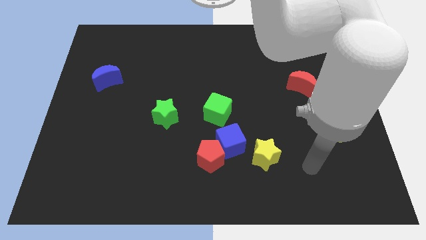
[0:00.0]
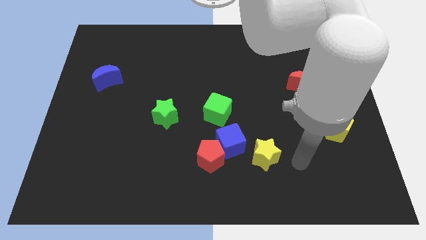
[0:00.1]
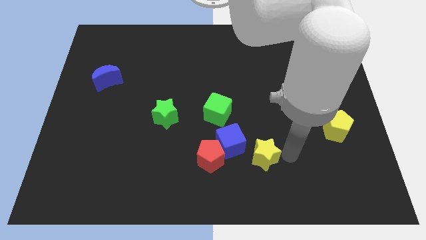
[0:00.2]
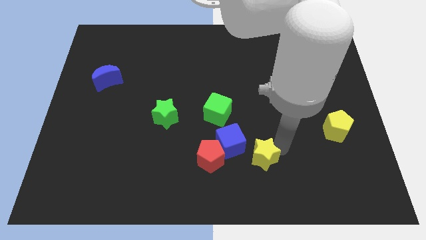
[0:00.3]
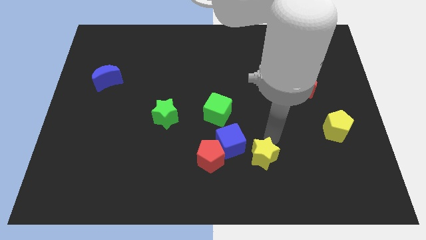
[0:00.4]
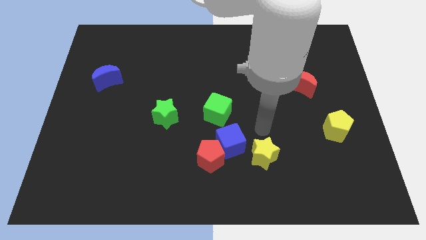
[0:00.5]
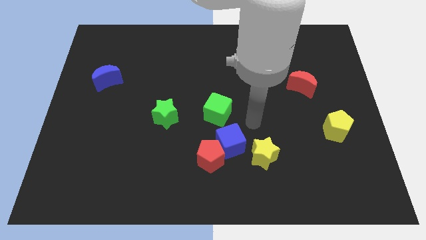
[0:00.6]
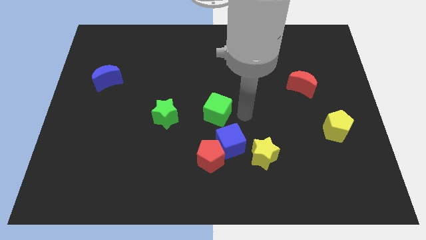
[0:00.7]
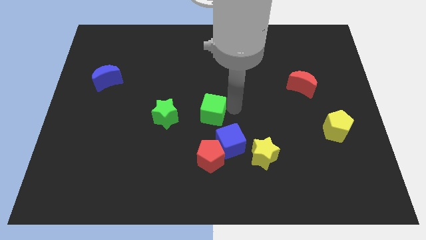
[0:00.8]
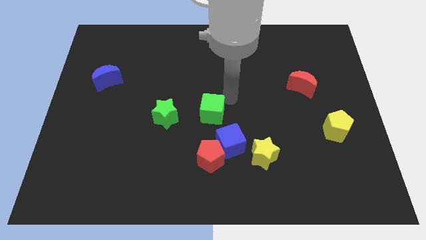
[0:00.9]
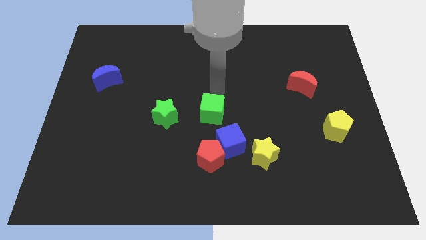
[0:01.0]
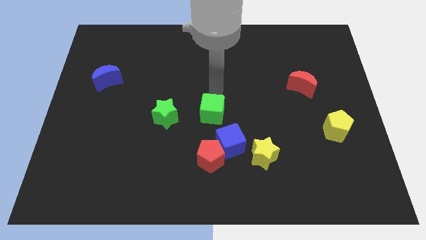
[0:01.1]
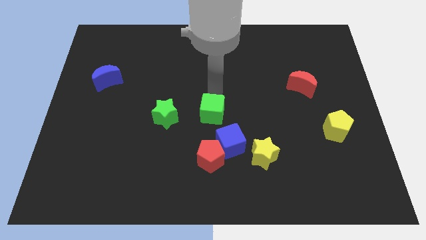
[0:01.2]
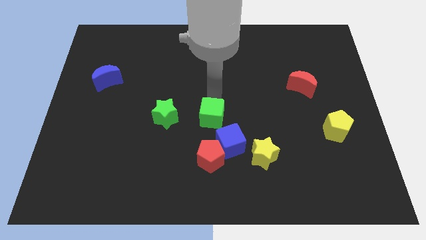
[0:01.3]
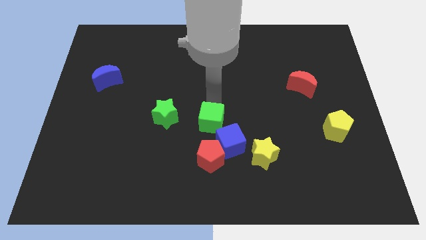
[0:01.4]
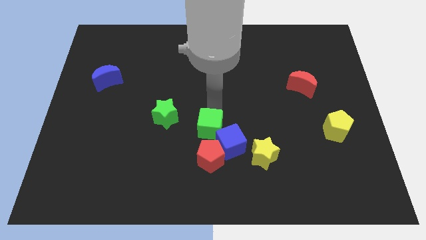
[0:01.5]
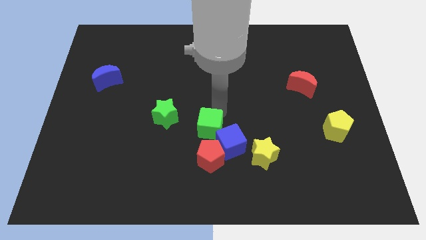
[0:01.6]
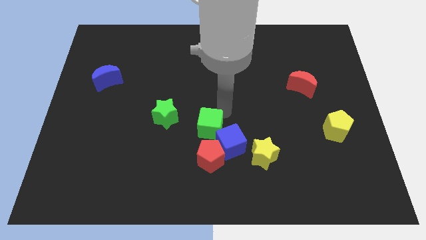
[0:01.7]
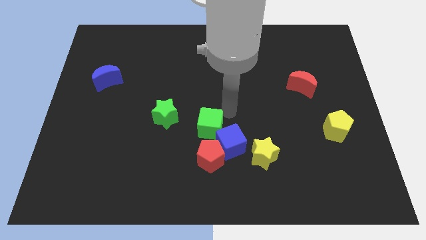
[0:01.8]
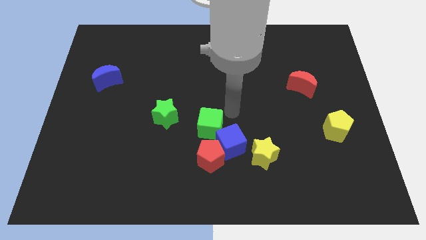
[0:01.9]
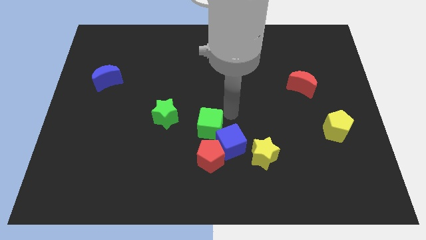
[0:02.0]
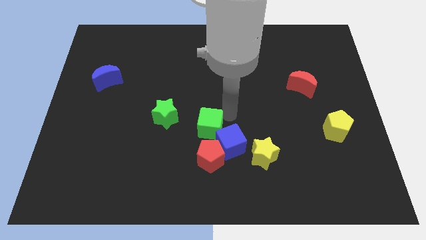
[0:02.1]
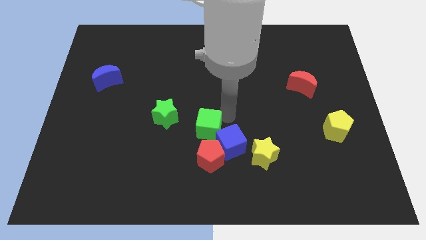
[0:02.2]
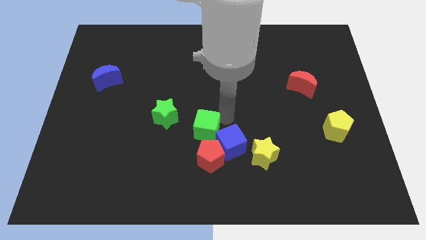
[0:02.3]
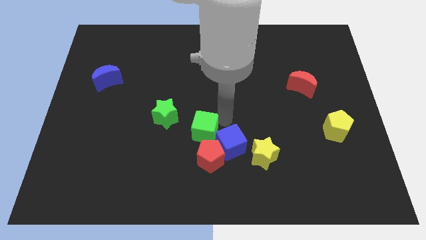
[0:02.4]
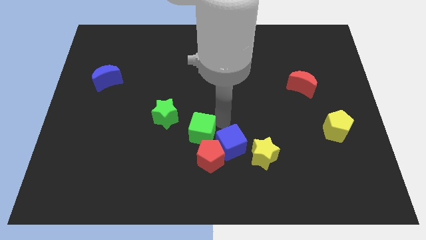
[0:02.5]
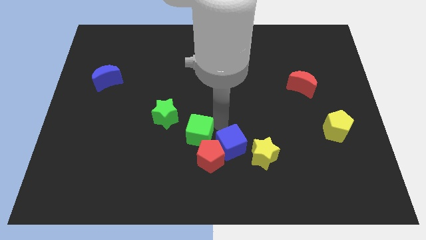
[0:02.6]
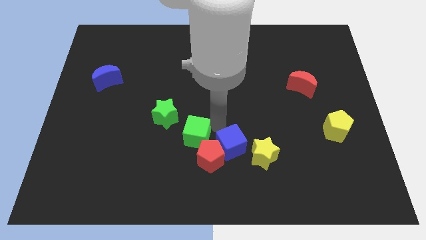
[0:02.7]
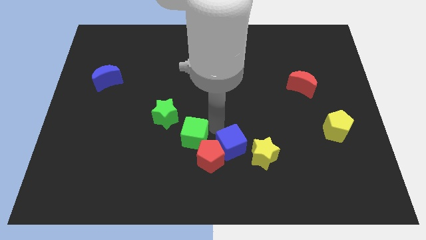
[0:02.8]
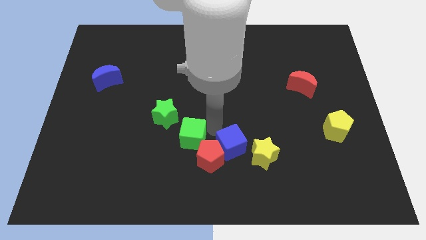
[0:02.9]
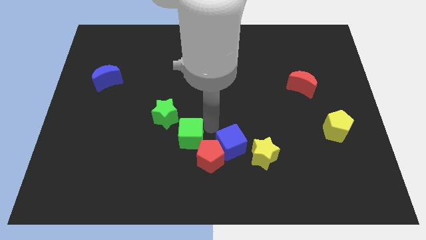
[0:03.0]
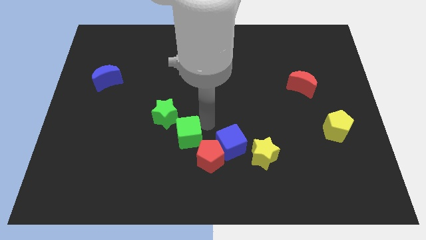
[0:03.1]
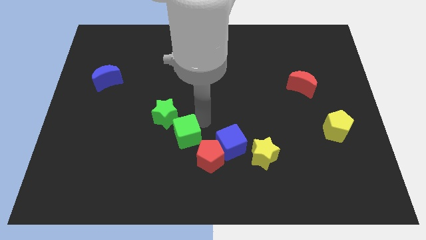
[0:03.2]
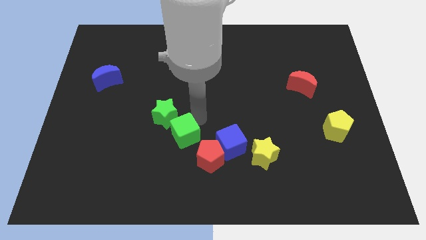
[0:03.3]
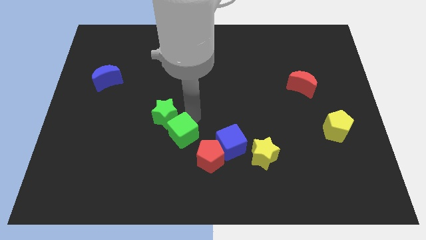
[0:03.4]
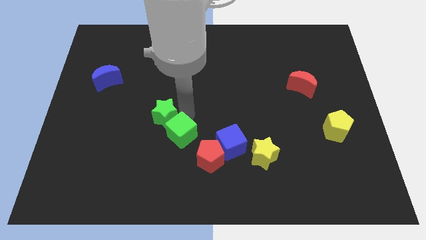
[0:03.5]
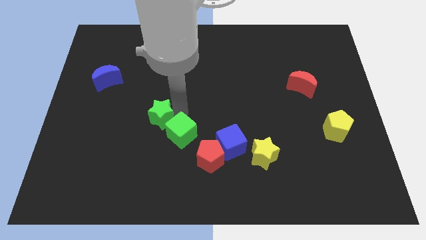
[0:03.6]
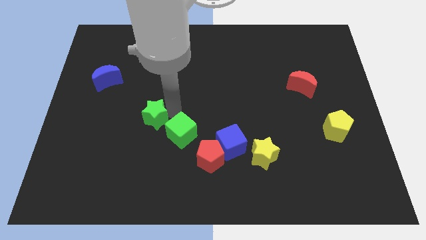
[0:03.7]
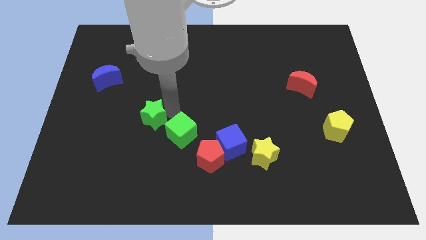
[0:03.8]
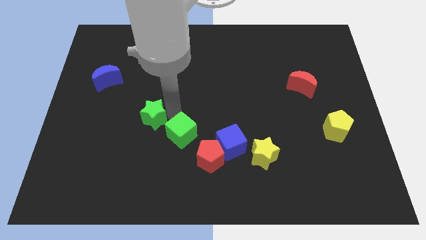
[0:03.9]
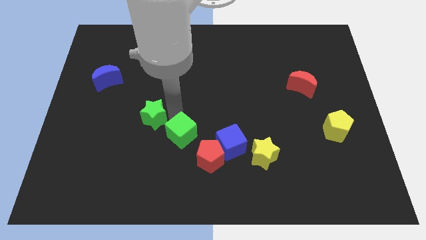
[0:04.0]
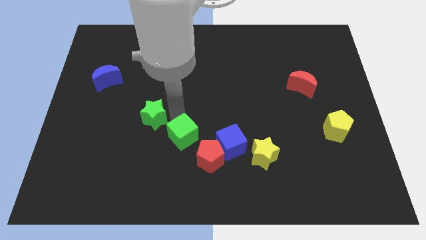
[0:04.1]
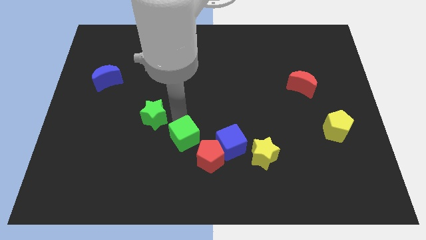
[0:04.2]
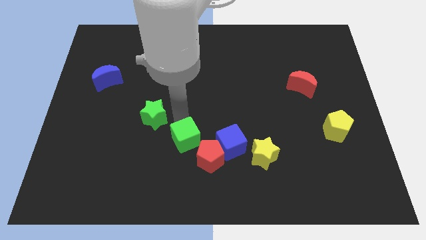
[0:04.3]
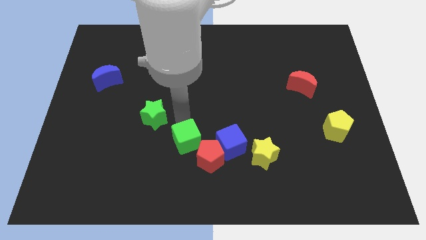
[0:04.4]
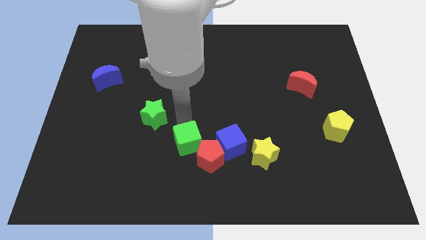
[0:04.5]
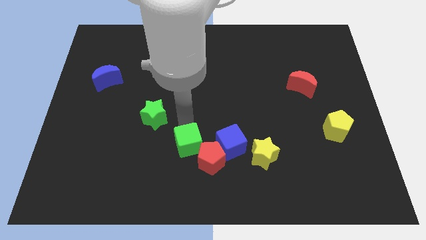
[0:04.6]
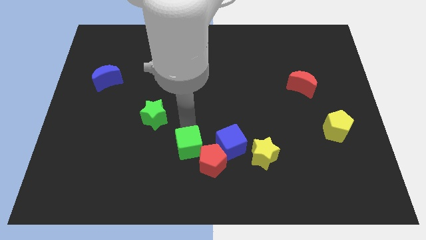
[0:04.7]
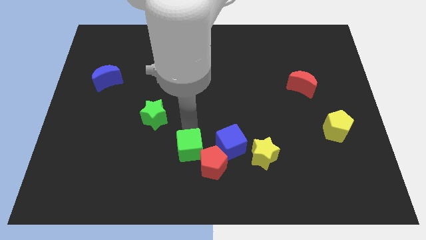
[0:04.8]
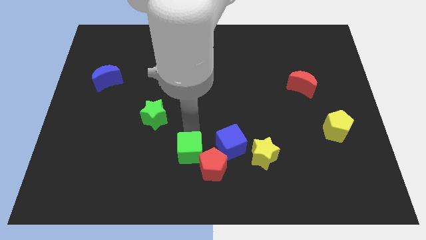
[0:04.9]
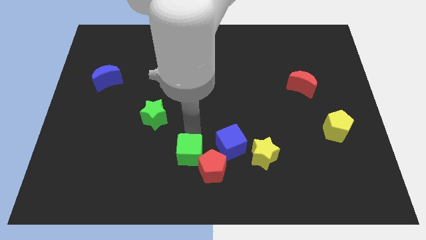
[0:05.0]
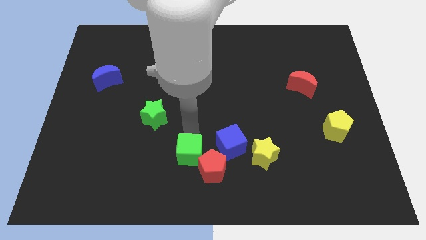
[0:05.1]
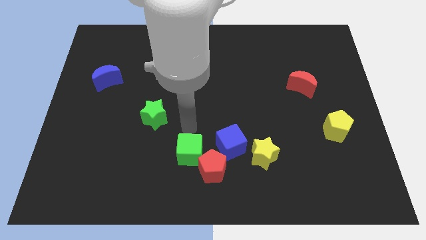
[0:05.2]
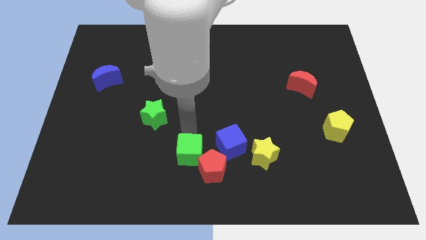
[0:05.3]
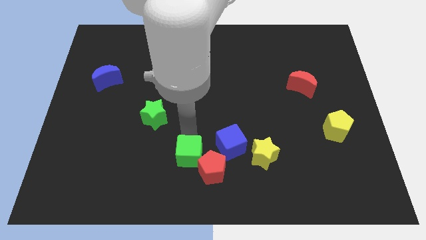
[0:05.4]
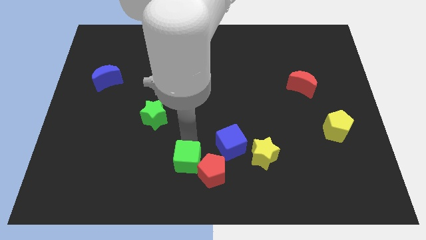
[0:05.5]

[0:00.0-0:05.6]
slide the green cube to the bottom side

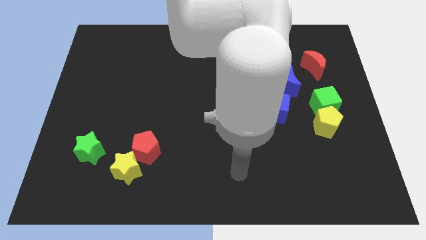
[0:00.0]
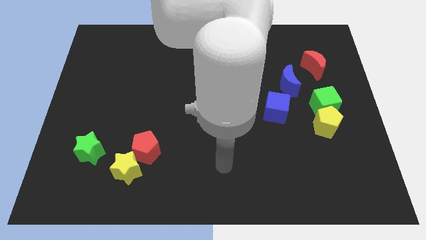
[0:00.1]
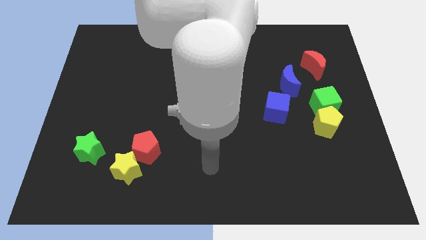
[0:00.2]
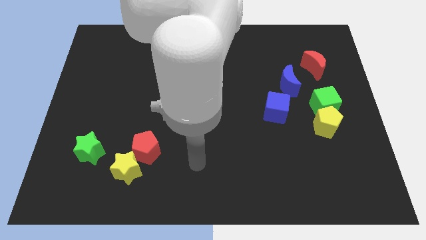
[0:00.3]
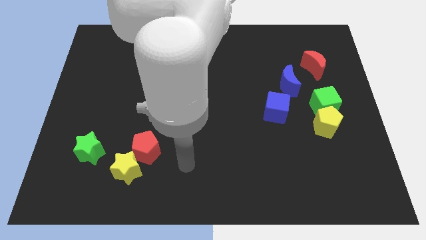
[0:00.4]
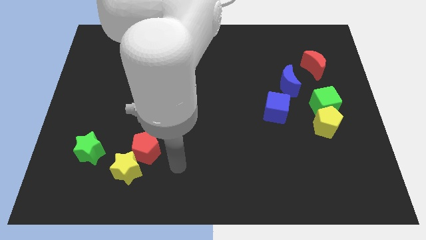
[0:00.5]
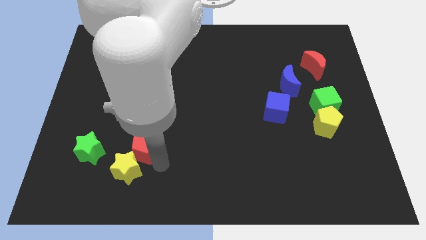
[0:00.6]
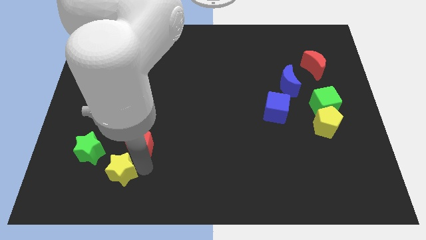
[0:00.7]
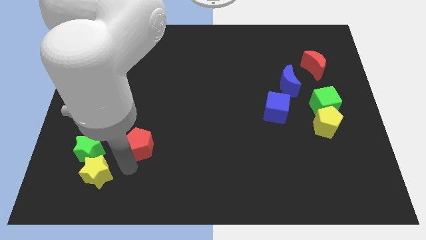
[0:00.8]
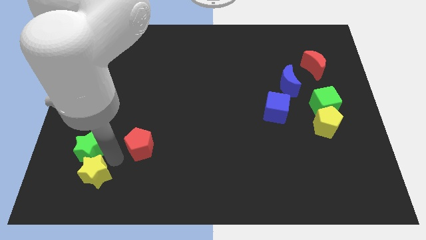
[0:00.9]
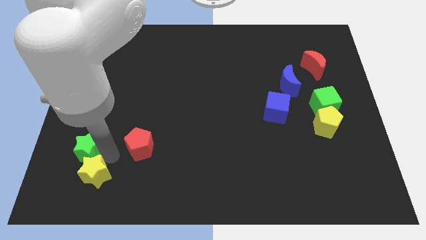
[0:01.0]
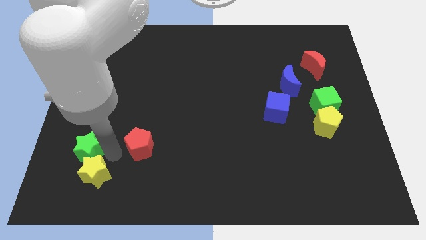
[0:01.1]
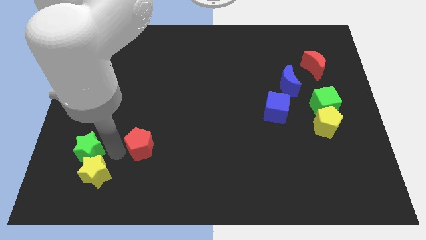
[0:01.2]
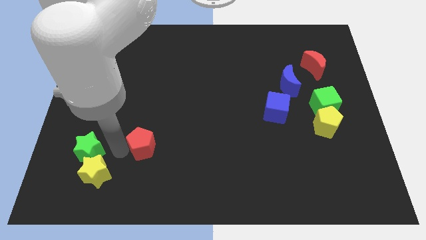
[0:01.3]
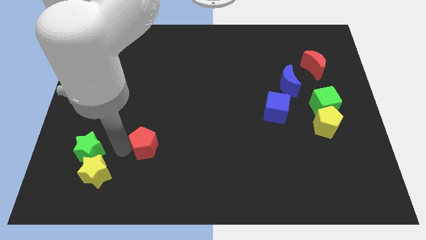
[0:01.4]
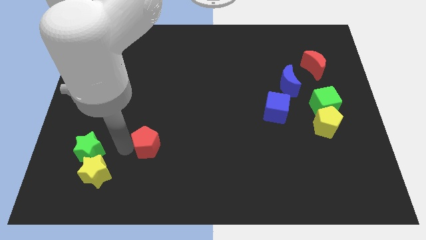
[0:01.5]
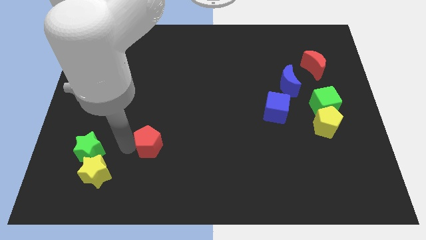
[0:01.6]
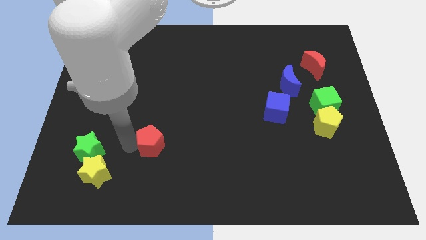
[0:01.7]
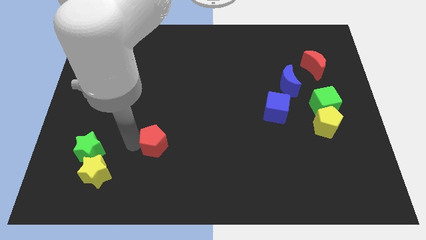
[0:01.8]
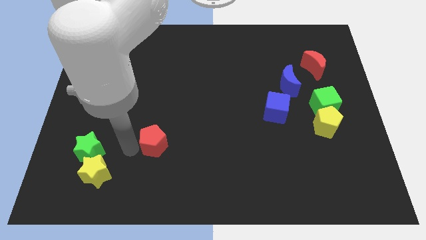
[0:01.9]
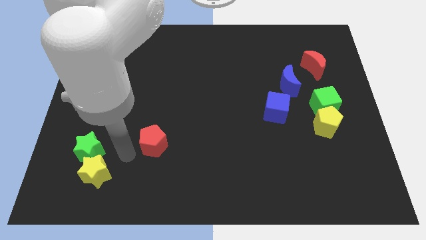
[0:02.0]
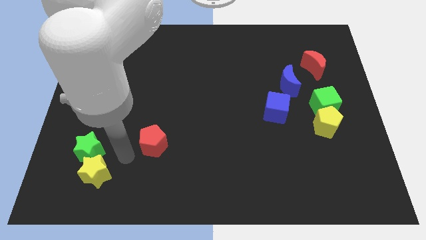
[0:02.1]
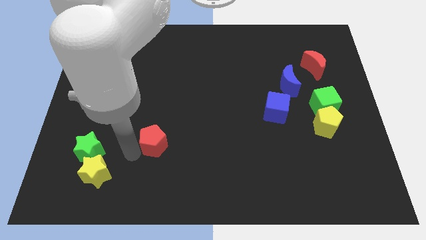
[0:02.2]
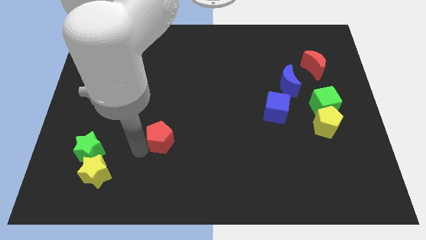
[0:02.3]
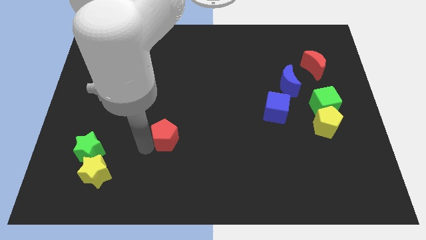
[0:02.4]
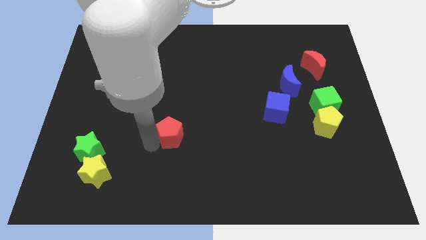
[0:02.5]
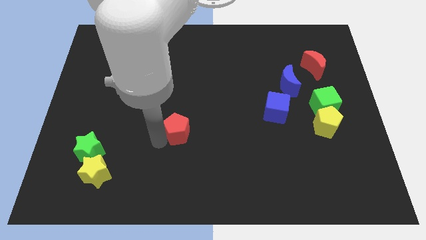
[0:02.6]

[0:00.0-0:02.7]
slide the red pentagon to the center
